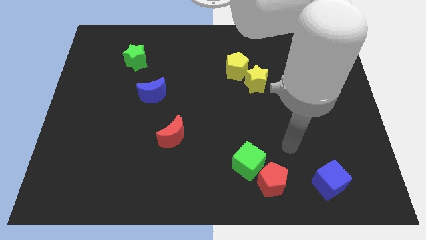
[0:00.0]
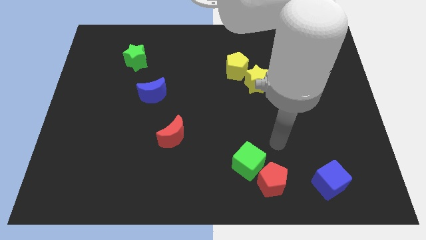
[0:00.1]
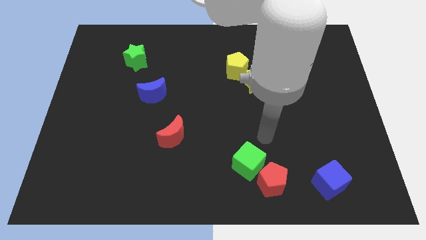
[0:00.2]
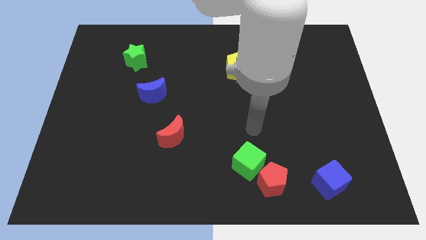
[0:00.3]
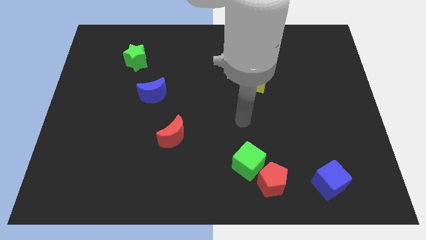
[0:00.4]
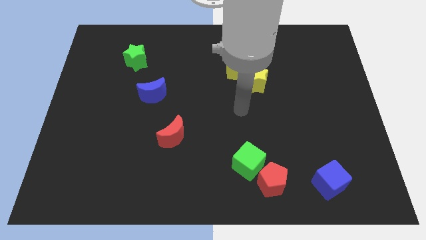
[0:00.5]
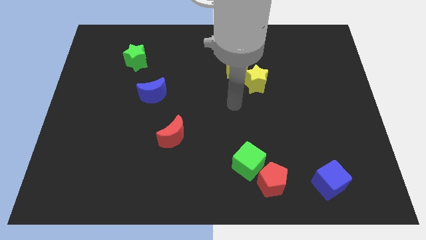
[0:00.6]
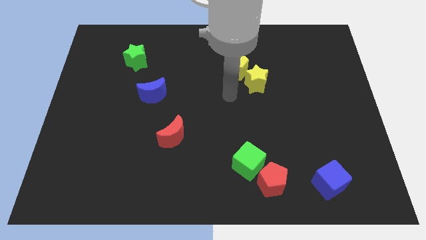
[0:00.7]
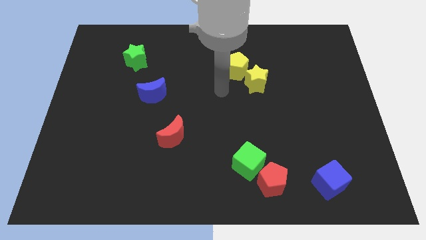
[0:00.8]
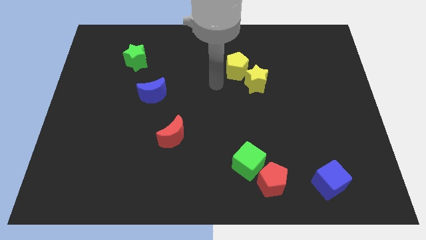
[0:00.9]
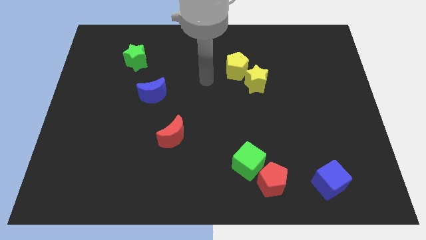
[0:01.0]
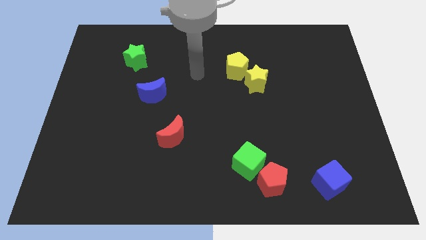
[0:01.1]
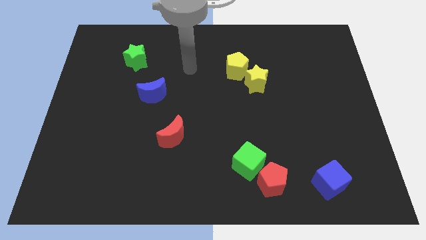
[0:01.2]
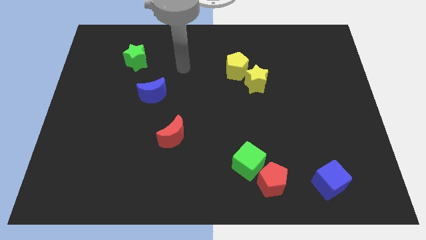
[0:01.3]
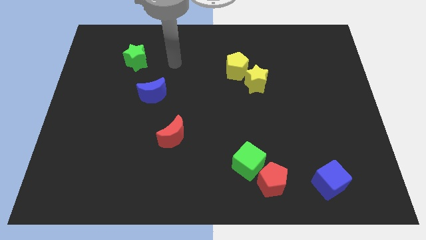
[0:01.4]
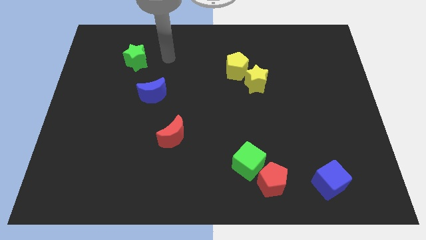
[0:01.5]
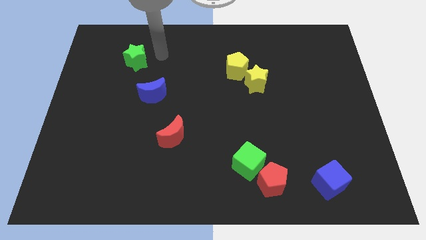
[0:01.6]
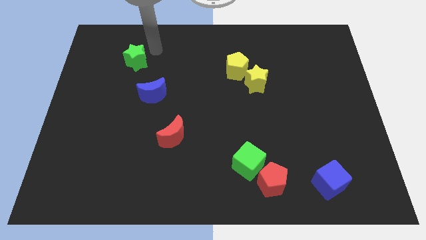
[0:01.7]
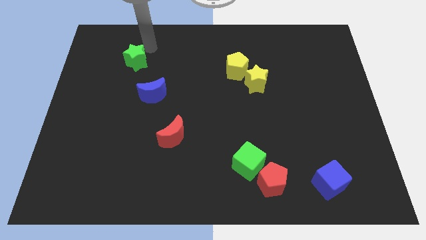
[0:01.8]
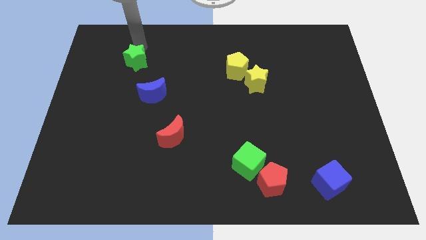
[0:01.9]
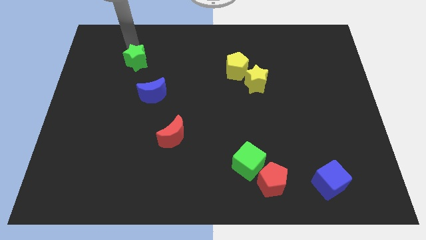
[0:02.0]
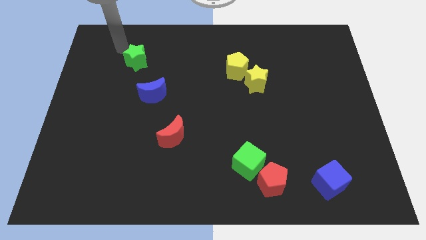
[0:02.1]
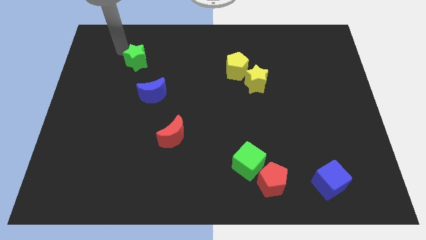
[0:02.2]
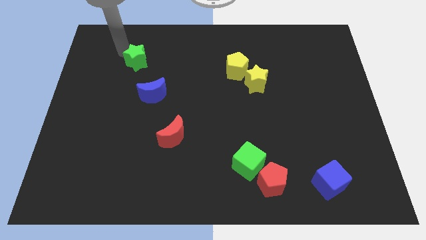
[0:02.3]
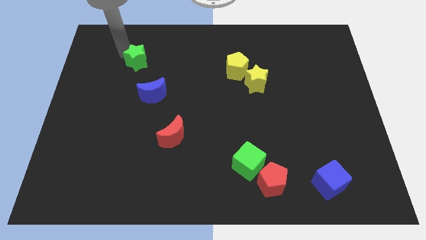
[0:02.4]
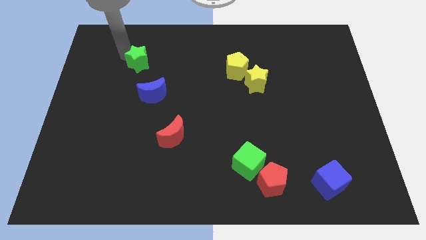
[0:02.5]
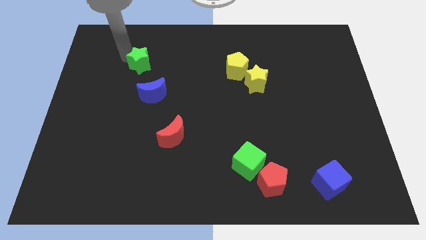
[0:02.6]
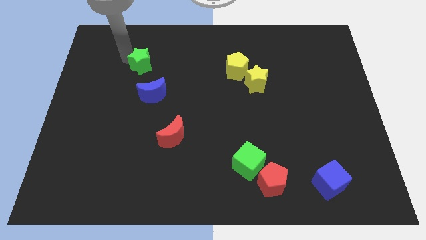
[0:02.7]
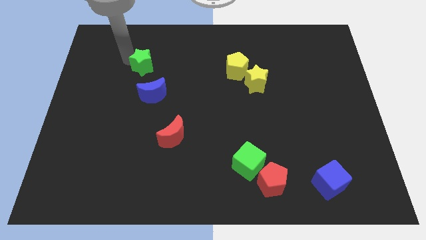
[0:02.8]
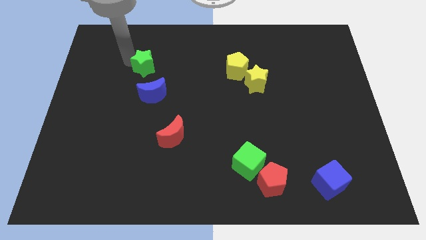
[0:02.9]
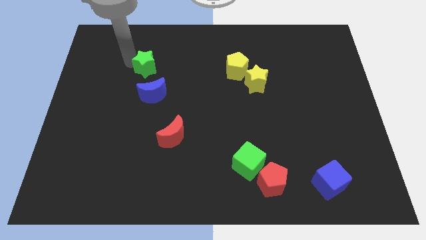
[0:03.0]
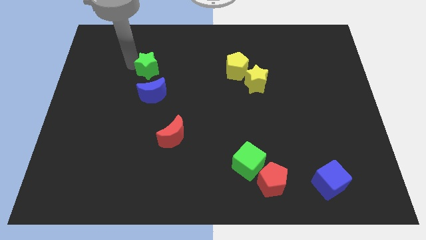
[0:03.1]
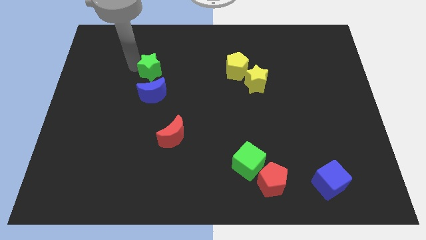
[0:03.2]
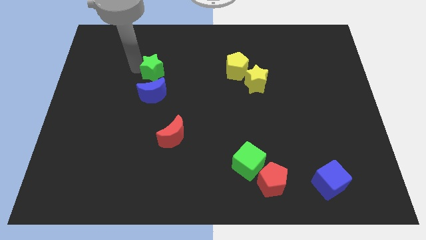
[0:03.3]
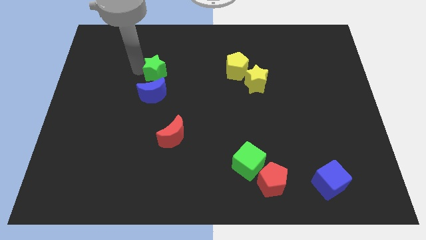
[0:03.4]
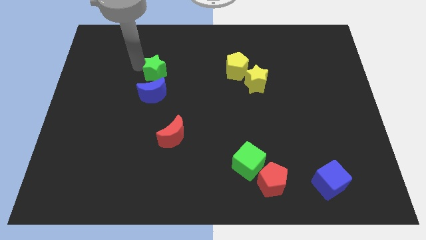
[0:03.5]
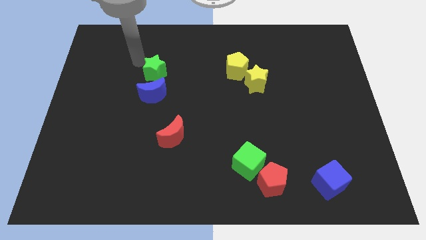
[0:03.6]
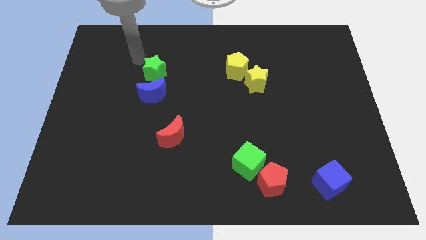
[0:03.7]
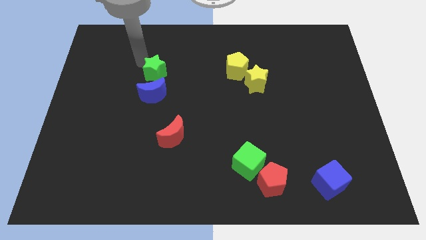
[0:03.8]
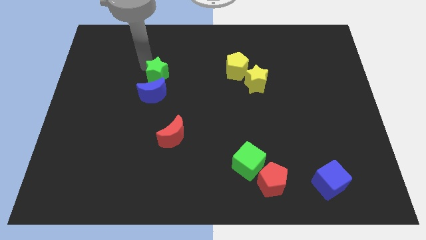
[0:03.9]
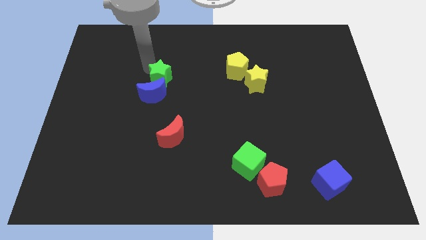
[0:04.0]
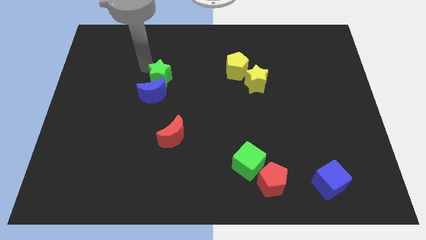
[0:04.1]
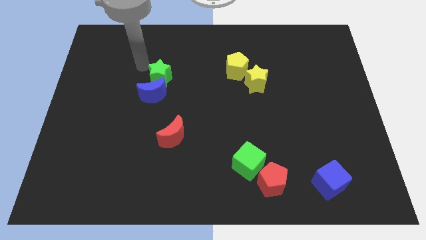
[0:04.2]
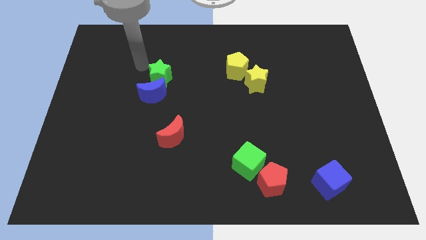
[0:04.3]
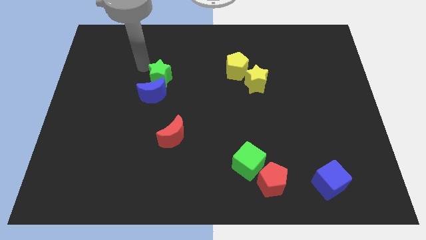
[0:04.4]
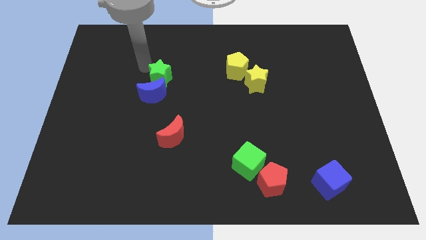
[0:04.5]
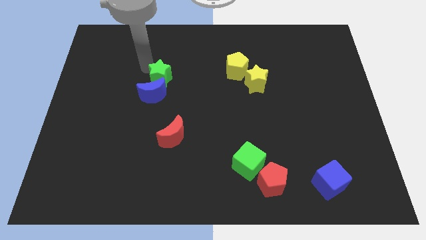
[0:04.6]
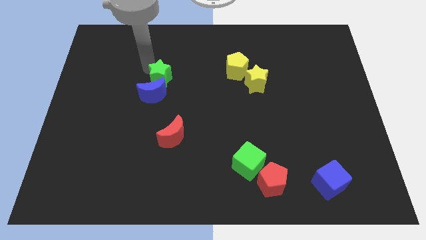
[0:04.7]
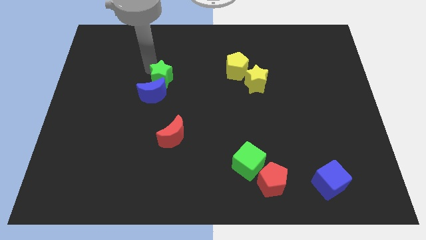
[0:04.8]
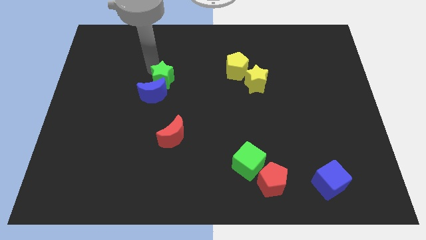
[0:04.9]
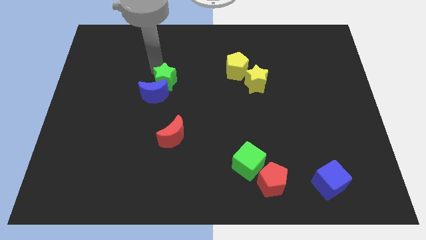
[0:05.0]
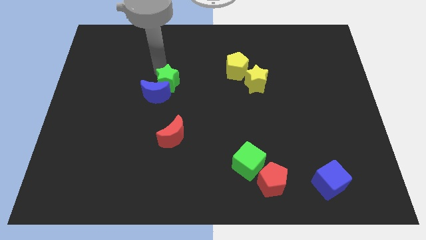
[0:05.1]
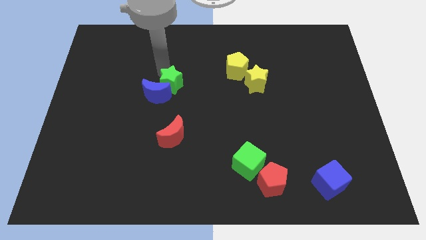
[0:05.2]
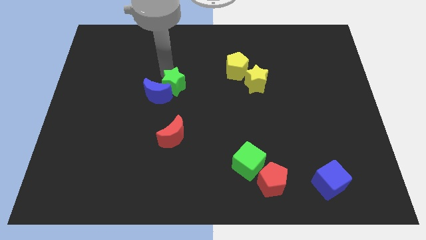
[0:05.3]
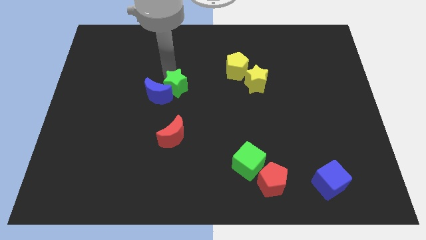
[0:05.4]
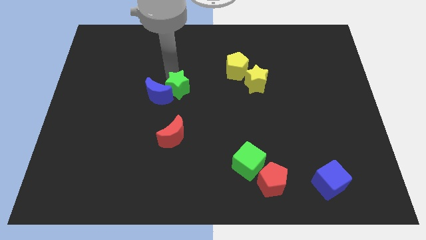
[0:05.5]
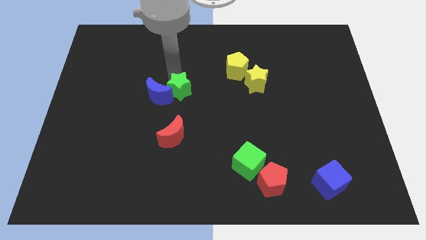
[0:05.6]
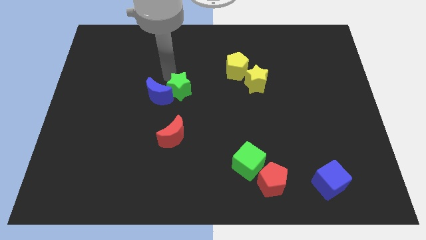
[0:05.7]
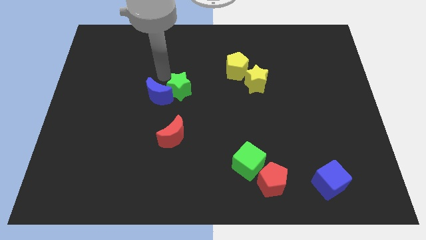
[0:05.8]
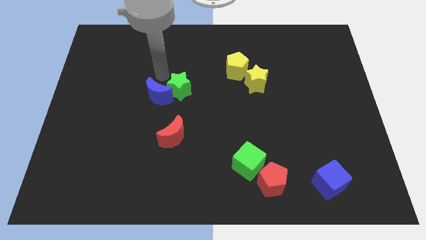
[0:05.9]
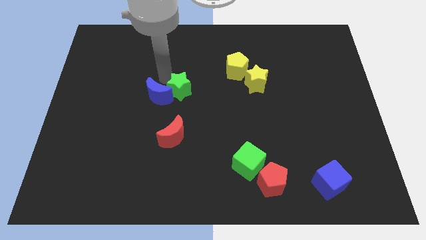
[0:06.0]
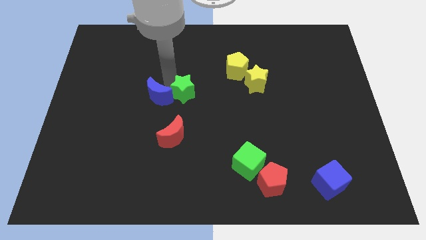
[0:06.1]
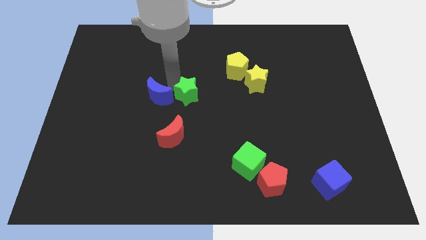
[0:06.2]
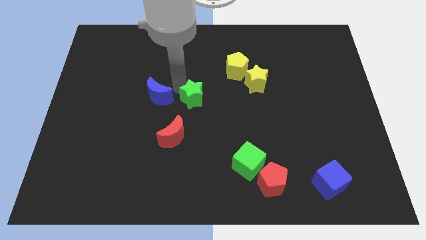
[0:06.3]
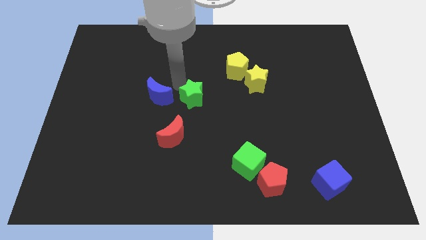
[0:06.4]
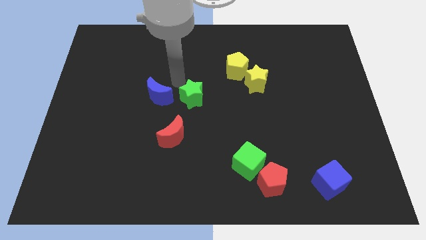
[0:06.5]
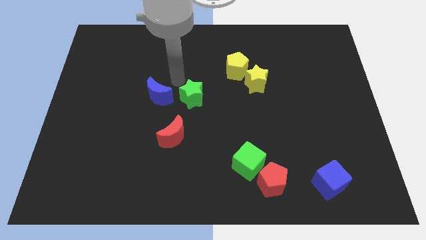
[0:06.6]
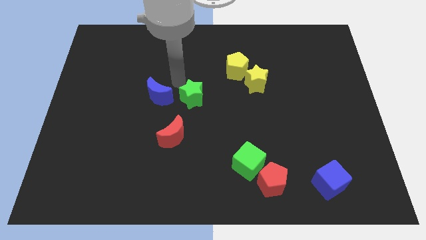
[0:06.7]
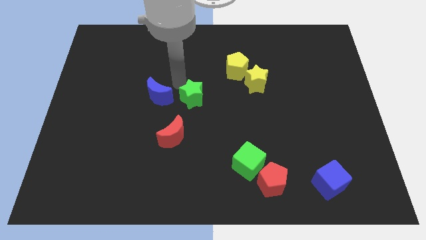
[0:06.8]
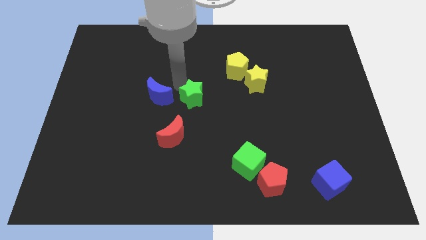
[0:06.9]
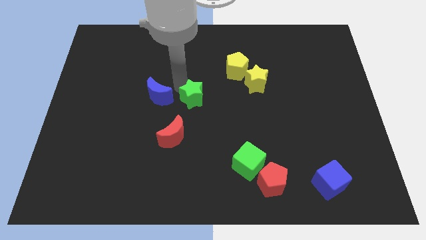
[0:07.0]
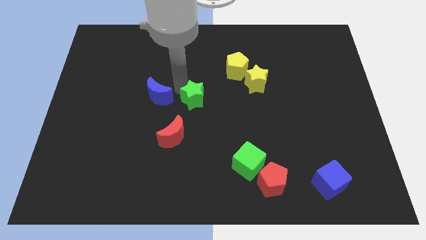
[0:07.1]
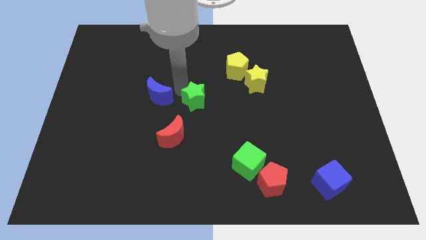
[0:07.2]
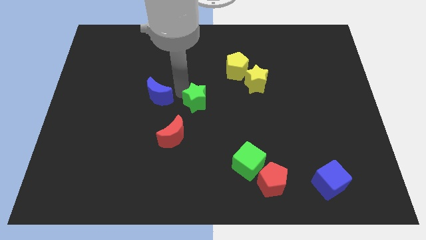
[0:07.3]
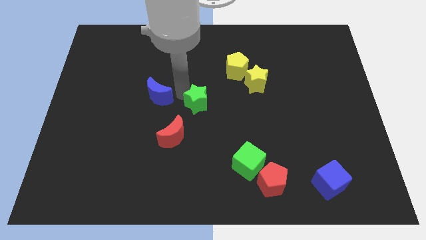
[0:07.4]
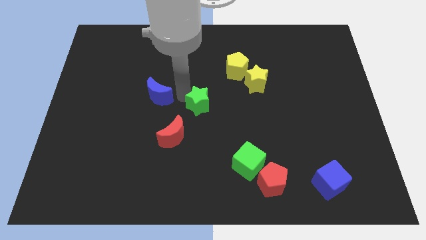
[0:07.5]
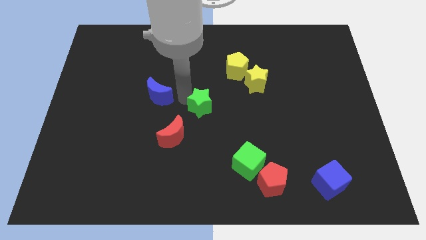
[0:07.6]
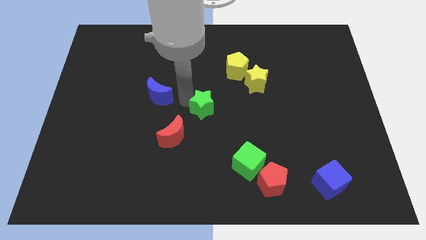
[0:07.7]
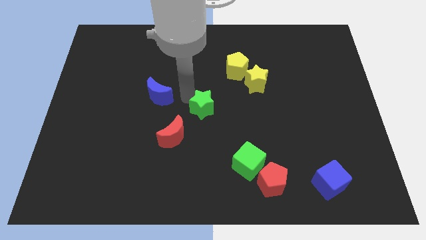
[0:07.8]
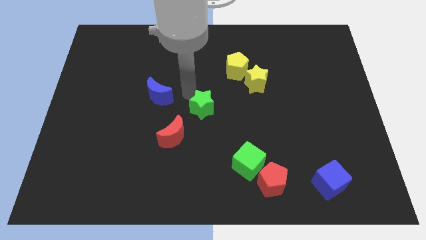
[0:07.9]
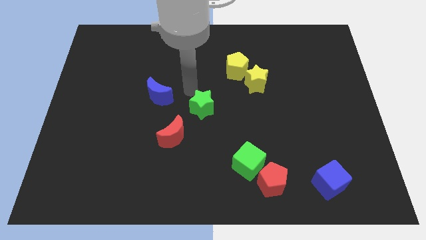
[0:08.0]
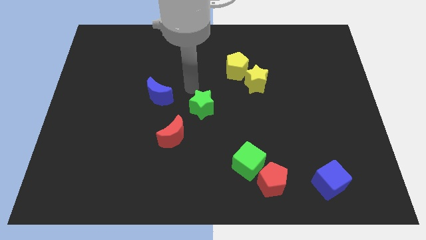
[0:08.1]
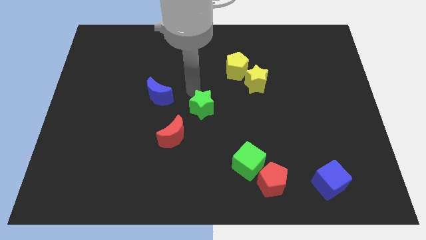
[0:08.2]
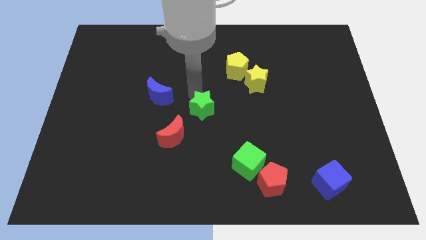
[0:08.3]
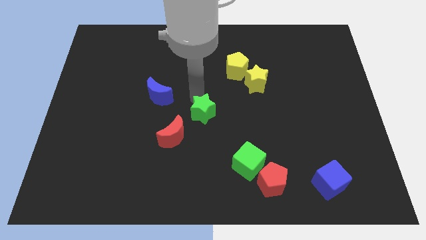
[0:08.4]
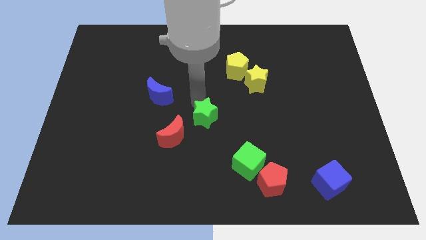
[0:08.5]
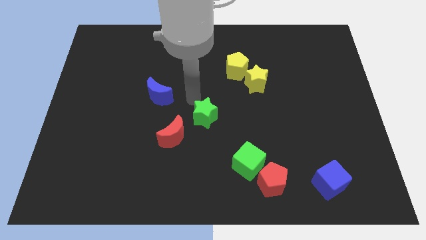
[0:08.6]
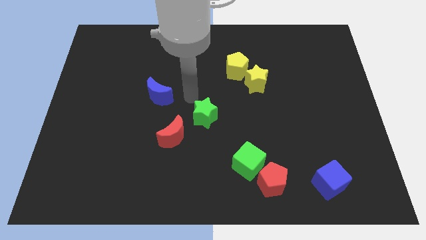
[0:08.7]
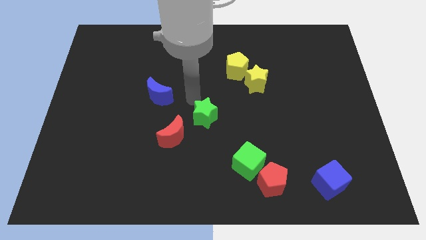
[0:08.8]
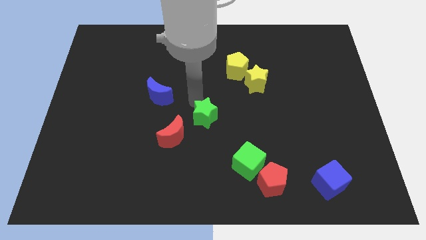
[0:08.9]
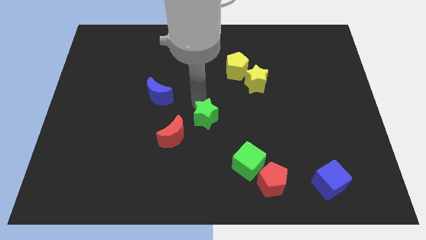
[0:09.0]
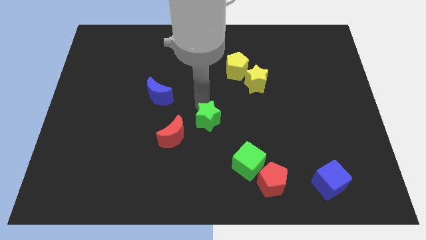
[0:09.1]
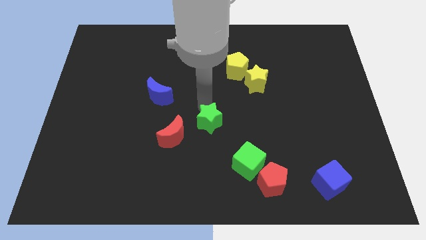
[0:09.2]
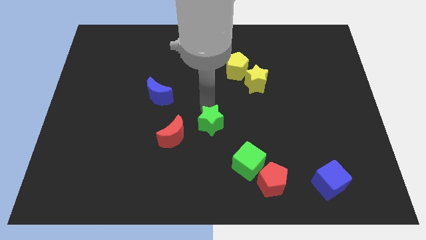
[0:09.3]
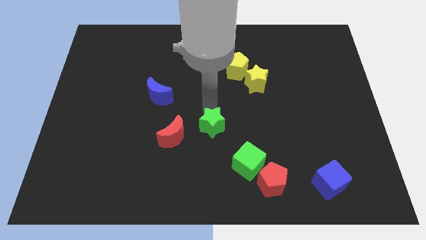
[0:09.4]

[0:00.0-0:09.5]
slide the green star diagonally up and to the left of the green cube
